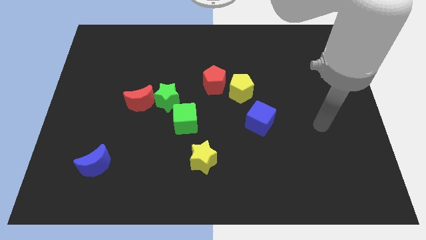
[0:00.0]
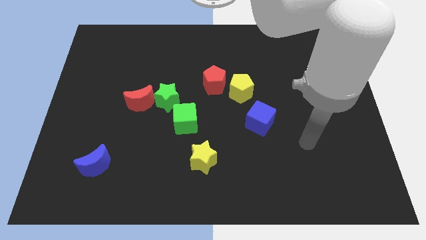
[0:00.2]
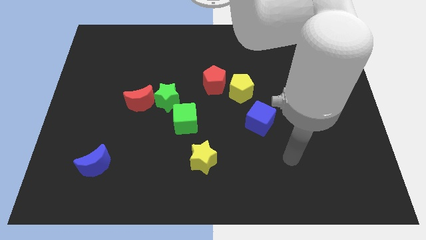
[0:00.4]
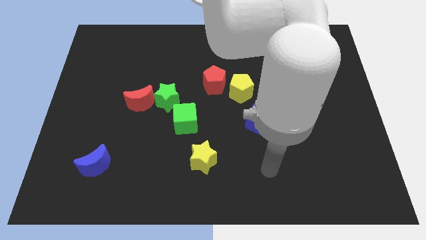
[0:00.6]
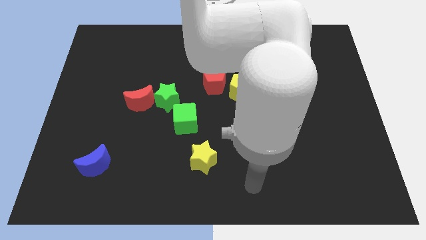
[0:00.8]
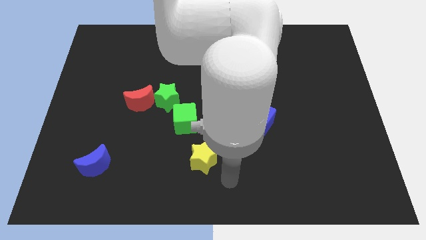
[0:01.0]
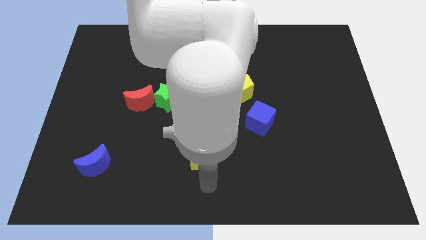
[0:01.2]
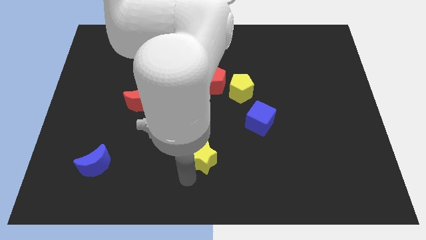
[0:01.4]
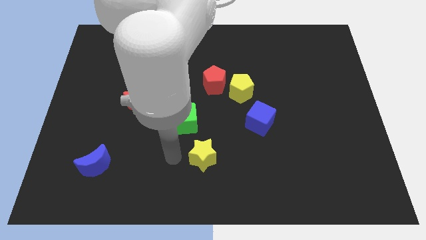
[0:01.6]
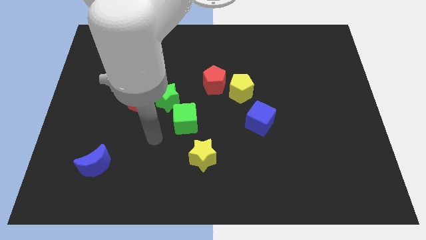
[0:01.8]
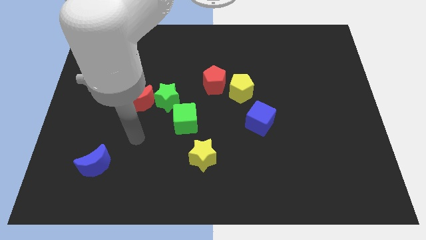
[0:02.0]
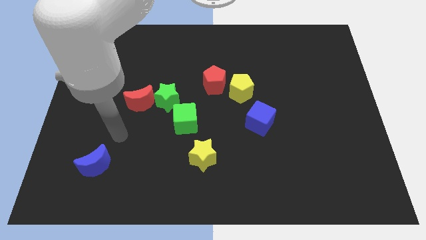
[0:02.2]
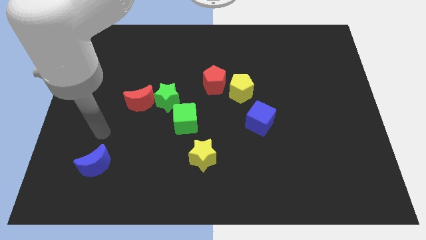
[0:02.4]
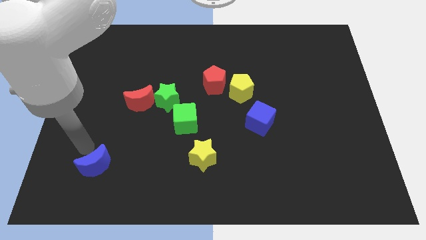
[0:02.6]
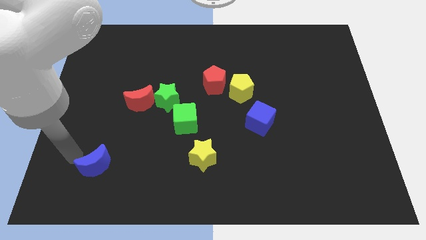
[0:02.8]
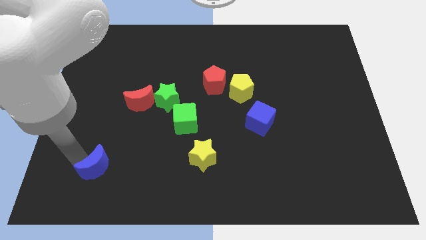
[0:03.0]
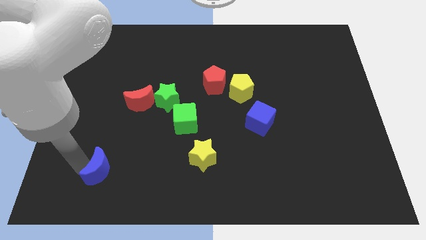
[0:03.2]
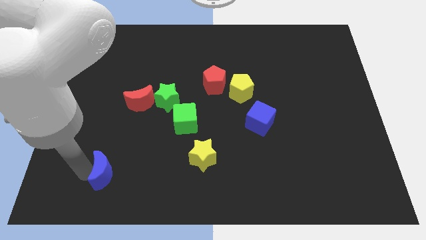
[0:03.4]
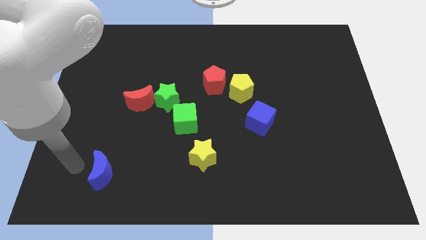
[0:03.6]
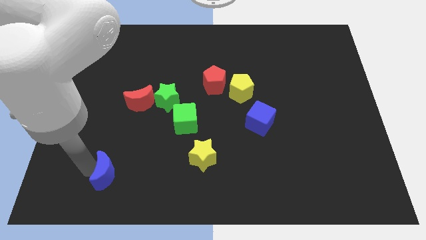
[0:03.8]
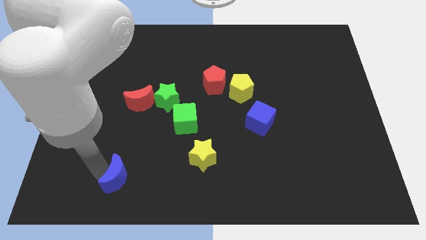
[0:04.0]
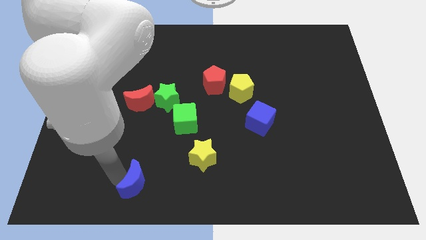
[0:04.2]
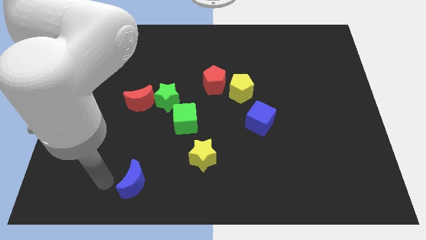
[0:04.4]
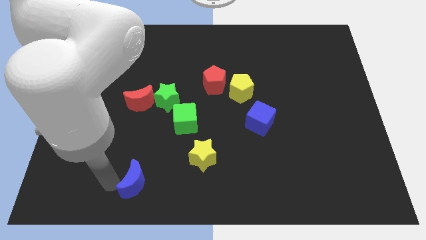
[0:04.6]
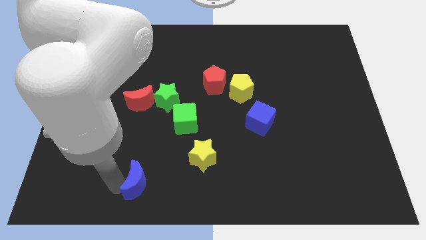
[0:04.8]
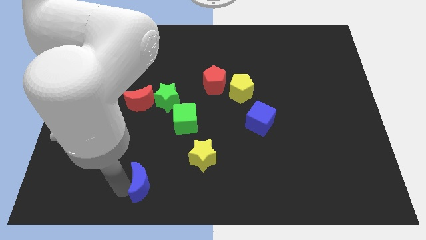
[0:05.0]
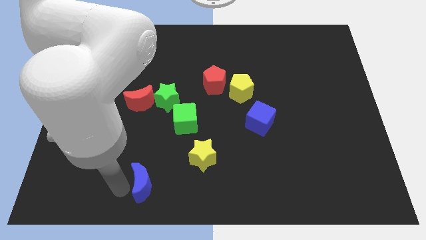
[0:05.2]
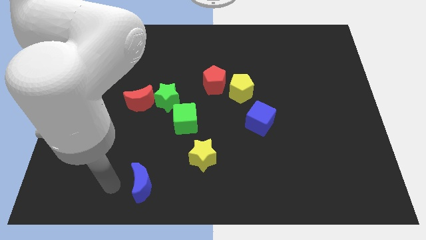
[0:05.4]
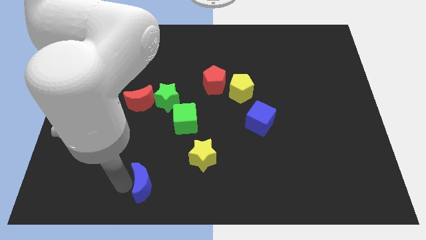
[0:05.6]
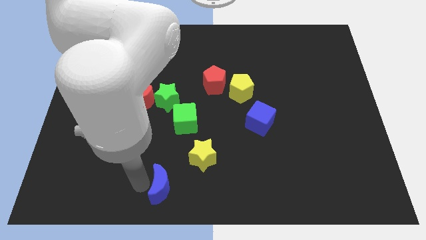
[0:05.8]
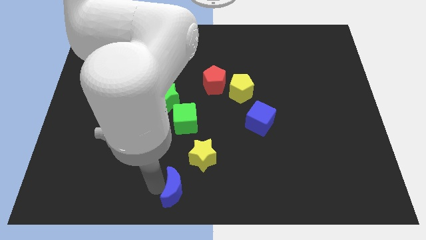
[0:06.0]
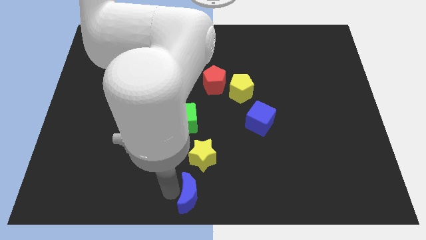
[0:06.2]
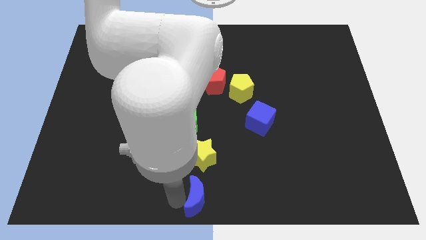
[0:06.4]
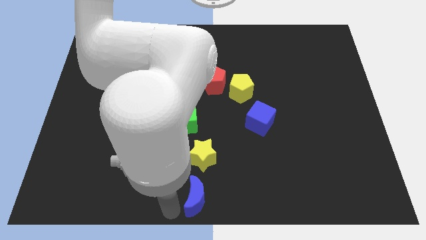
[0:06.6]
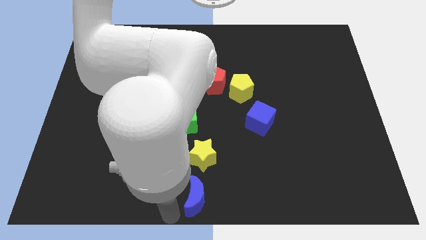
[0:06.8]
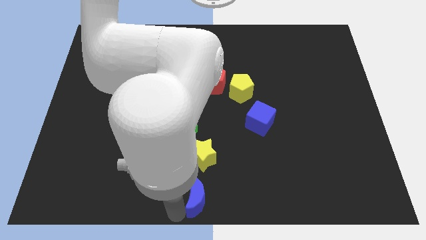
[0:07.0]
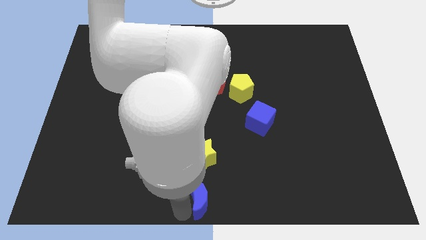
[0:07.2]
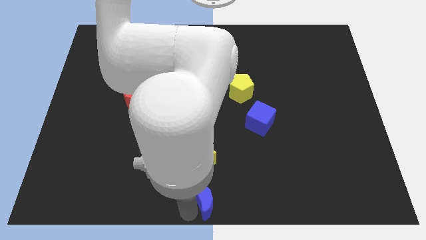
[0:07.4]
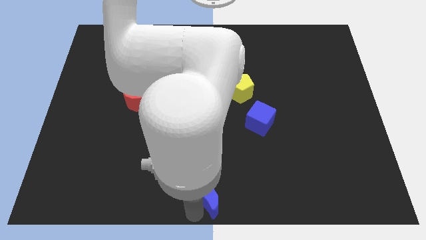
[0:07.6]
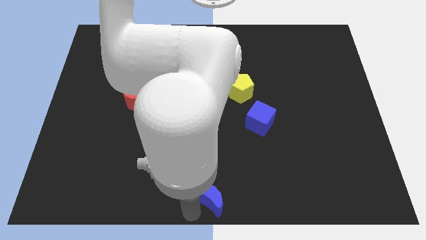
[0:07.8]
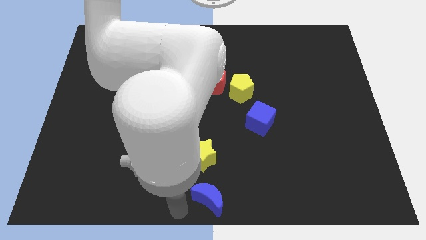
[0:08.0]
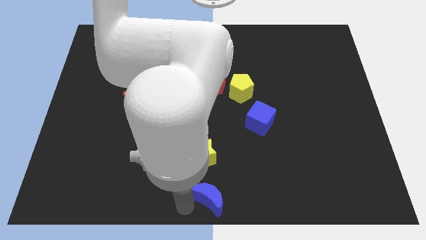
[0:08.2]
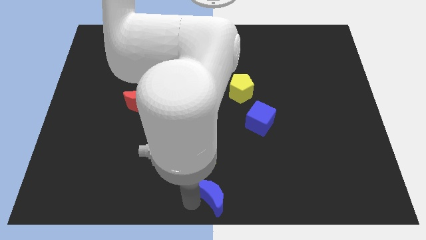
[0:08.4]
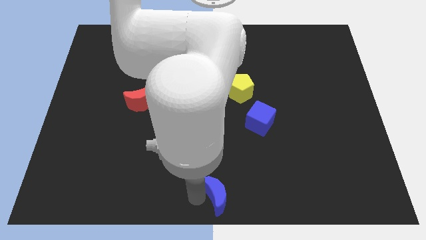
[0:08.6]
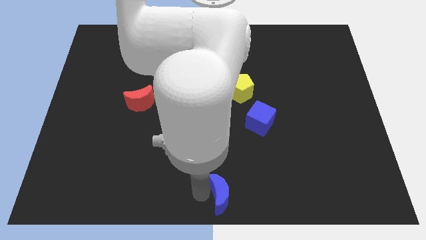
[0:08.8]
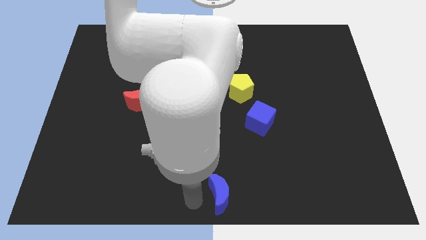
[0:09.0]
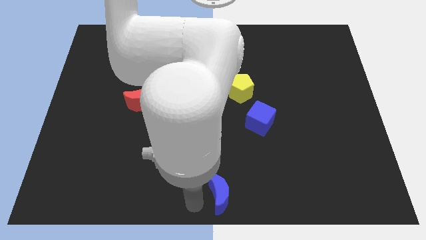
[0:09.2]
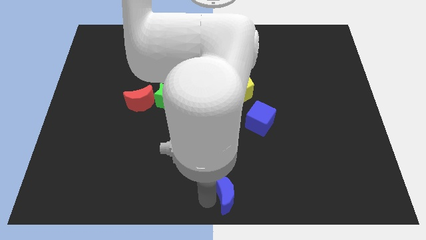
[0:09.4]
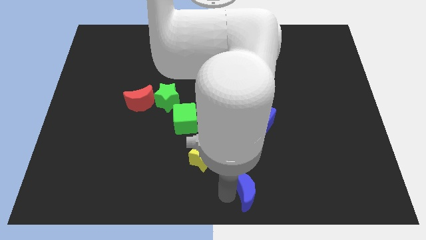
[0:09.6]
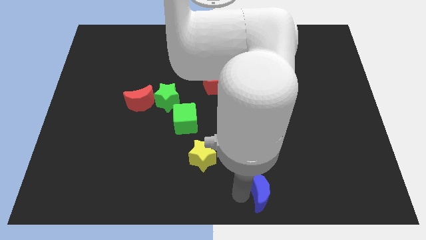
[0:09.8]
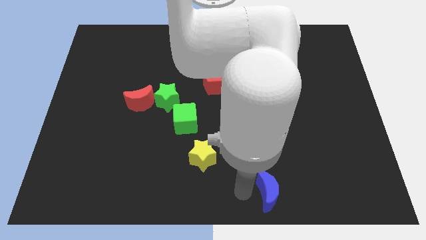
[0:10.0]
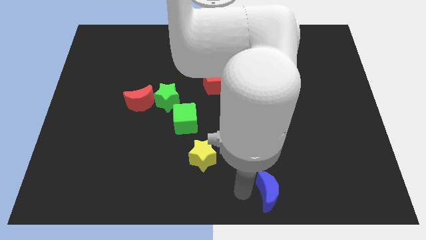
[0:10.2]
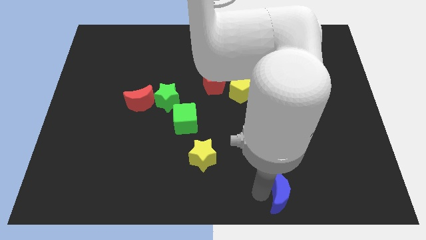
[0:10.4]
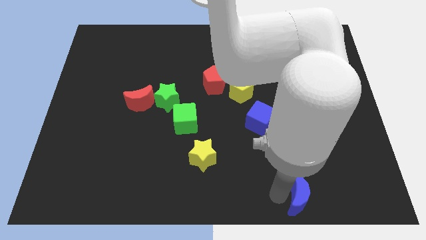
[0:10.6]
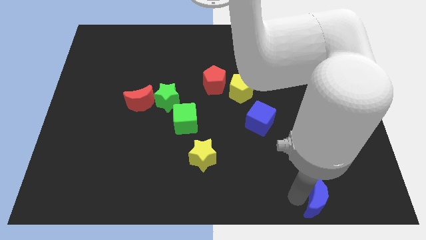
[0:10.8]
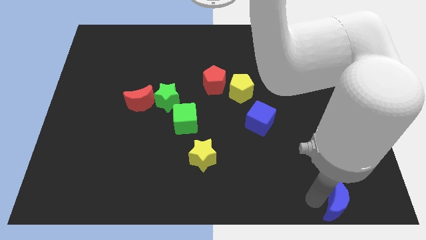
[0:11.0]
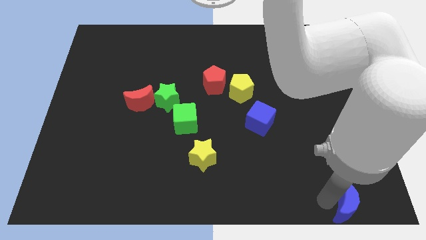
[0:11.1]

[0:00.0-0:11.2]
push the blue moon to the bottom right of the board
